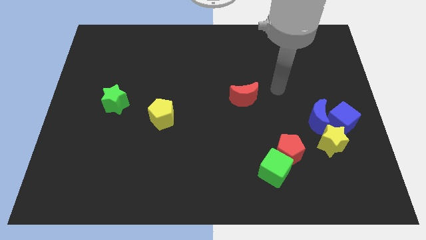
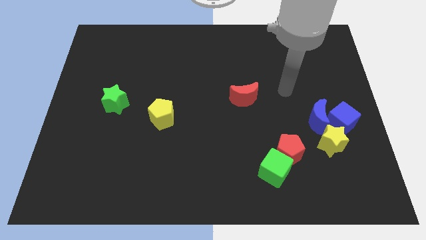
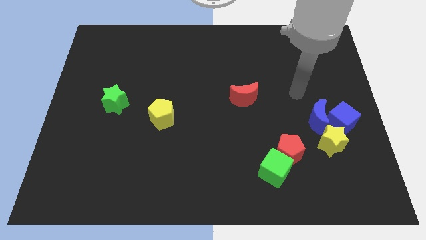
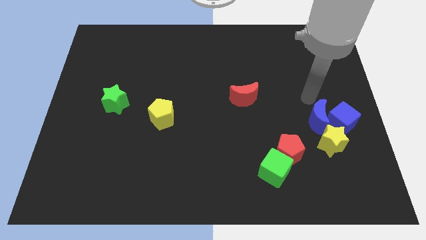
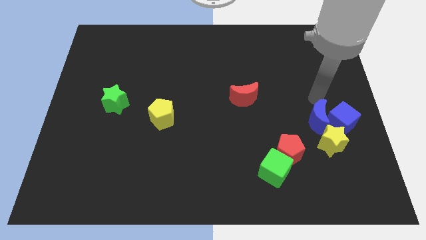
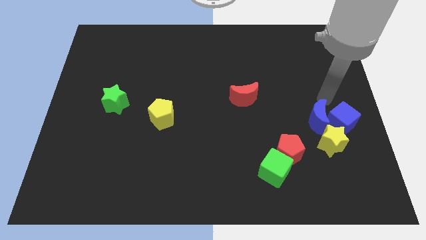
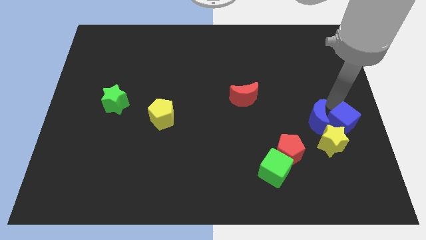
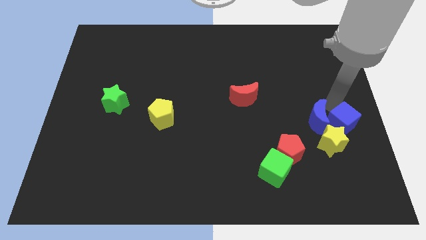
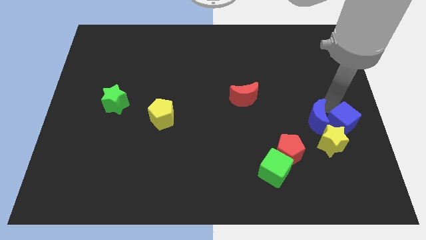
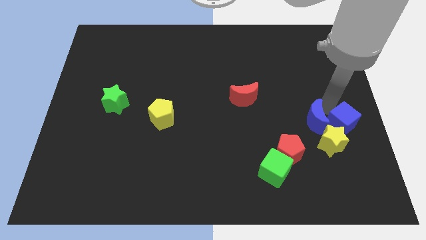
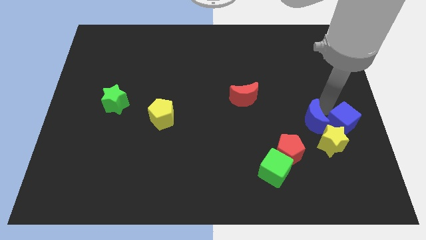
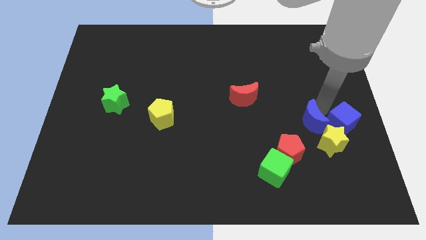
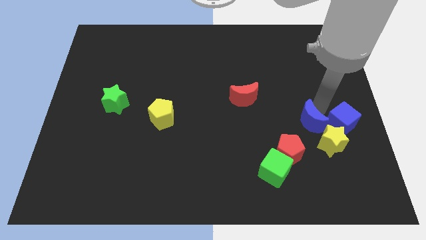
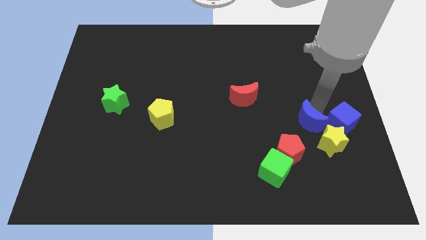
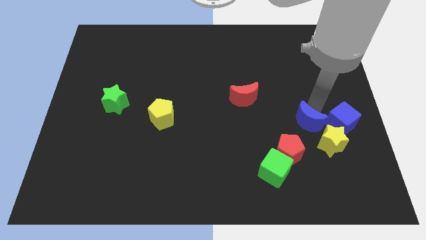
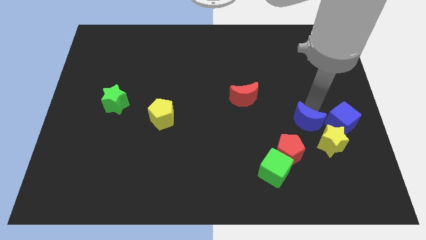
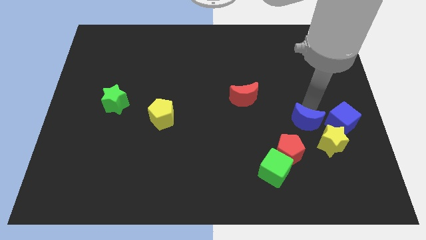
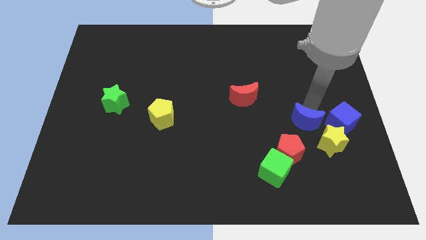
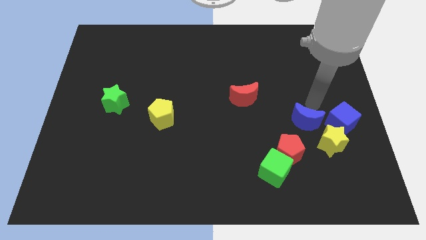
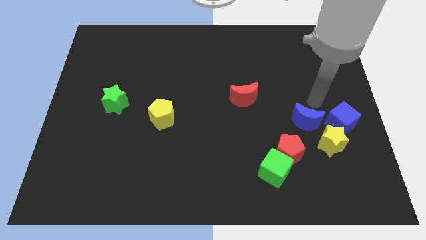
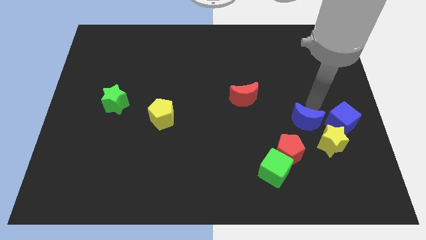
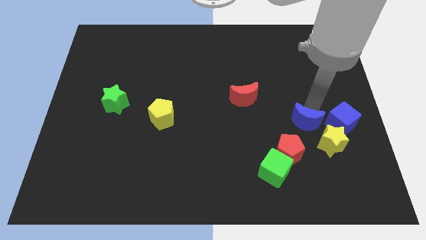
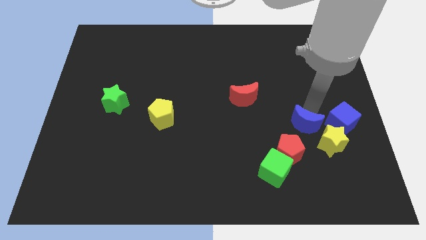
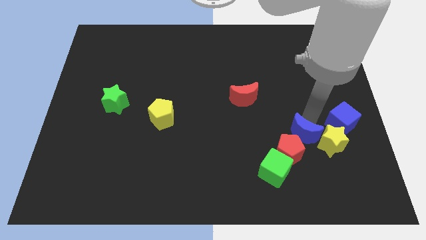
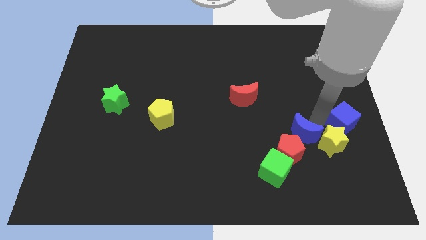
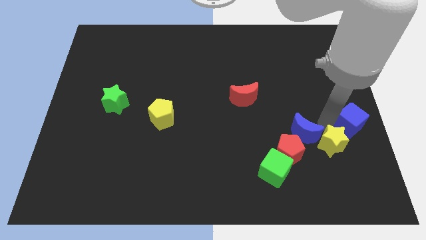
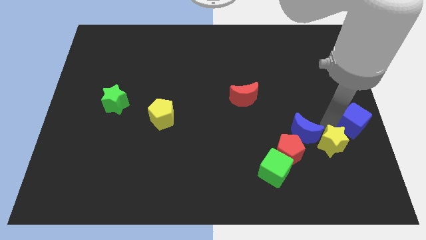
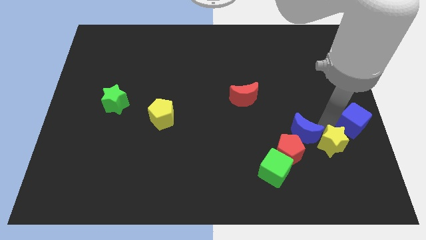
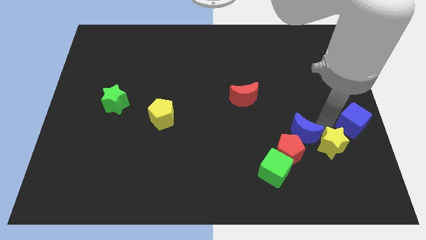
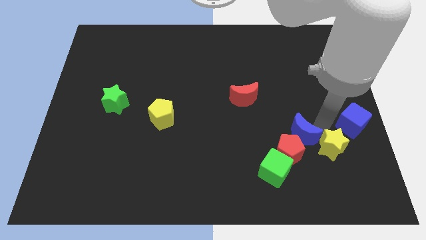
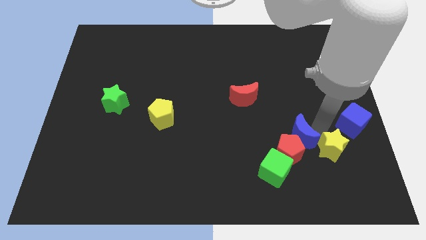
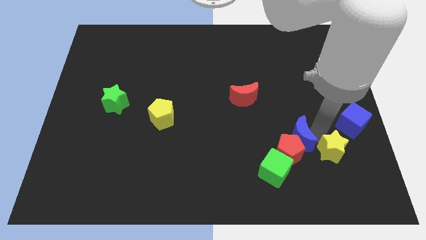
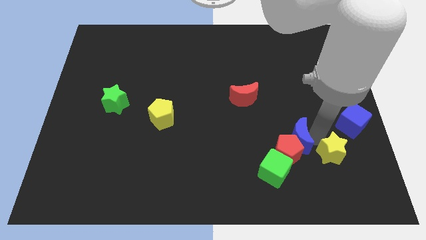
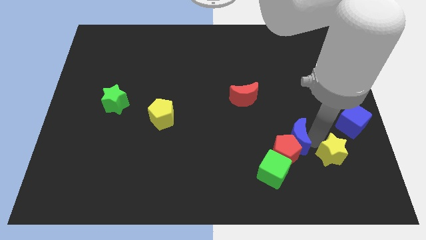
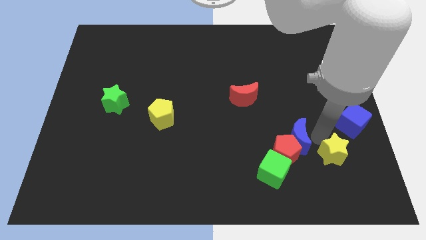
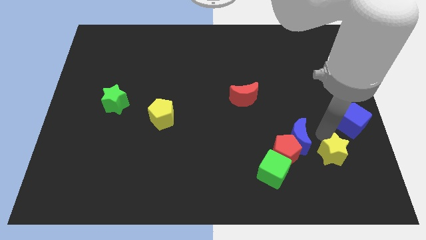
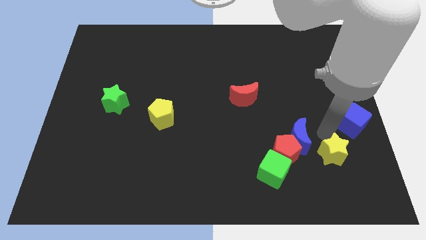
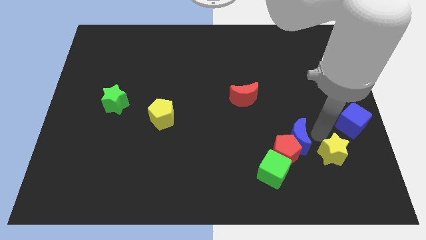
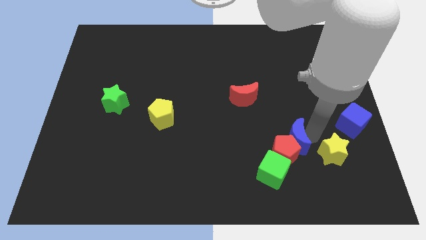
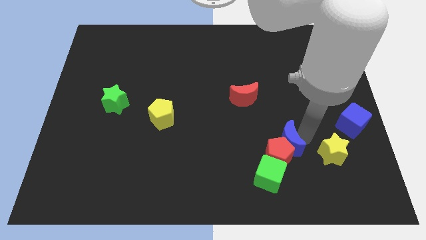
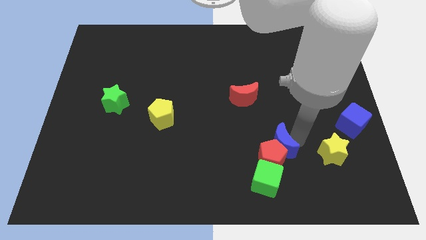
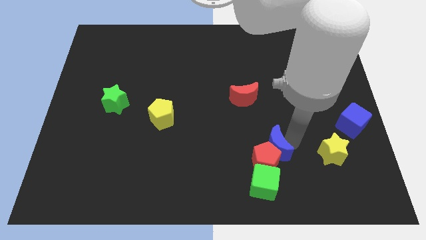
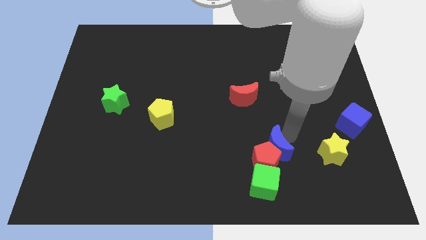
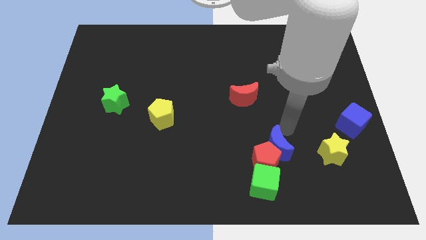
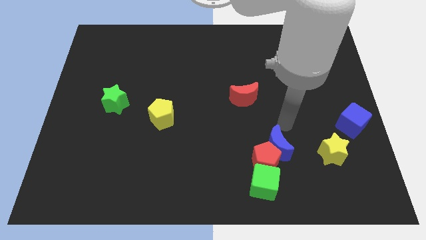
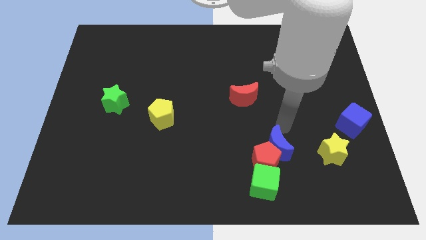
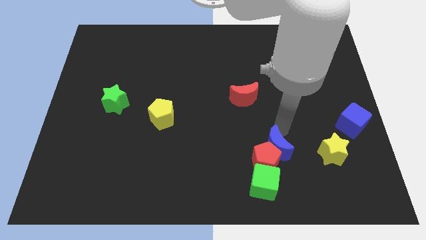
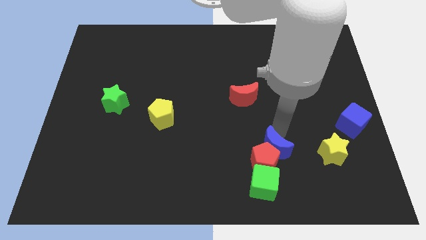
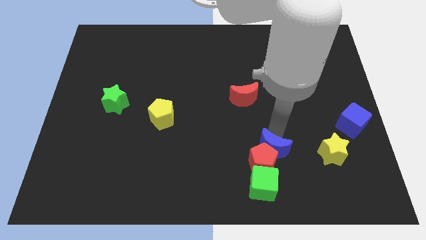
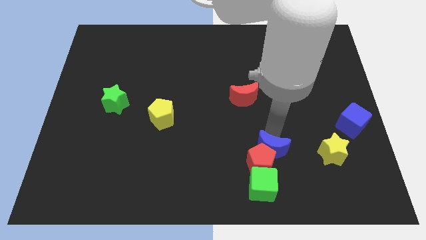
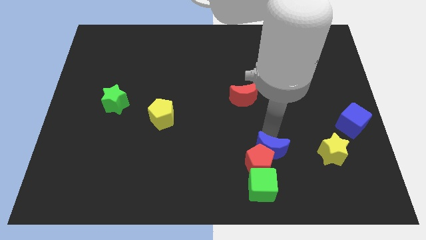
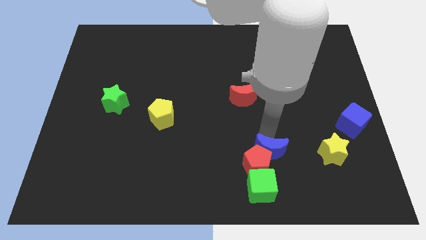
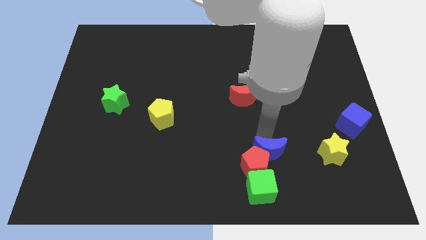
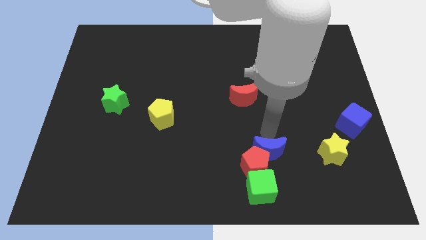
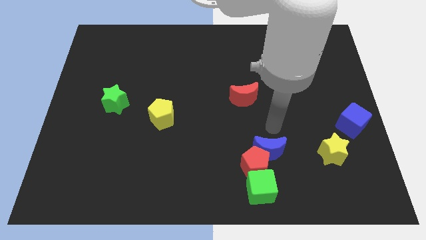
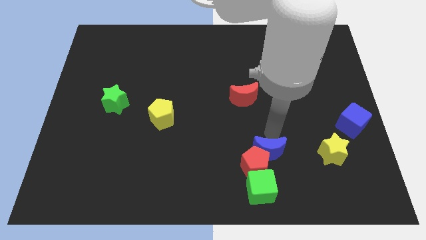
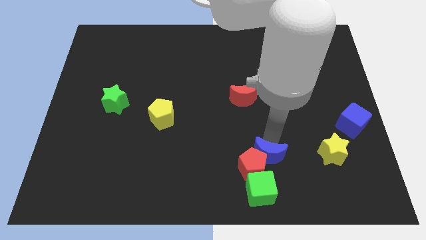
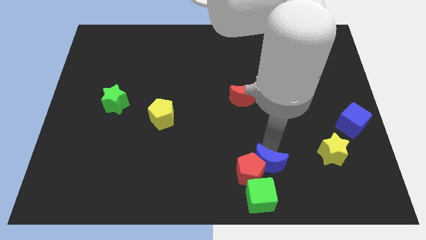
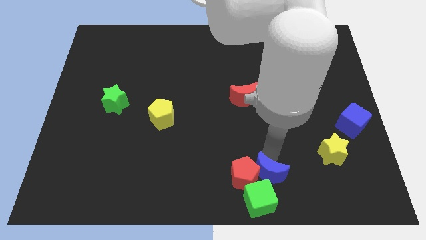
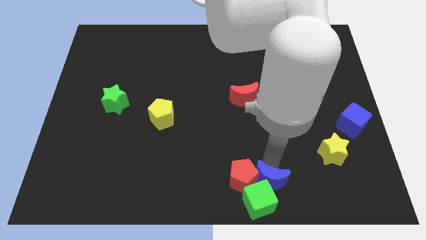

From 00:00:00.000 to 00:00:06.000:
push the blue moon next to the green cube

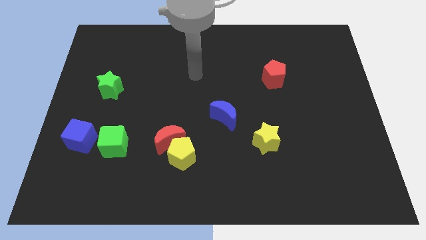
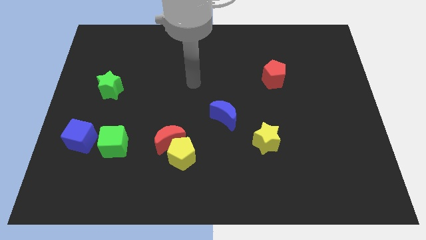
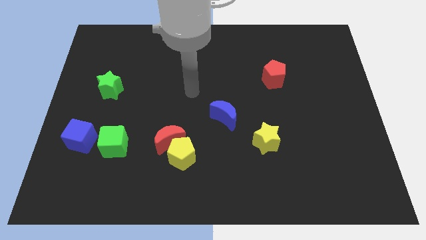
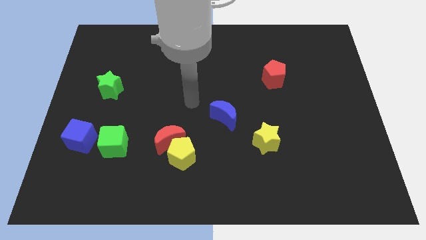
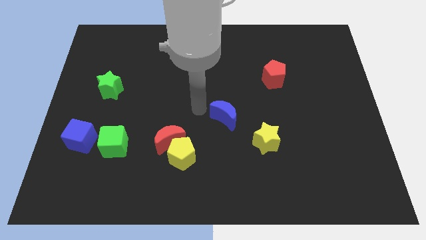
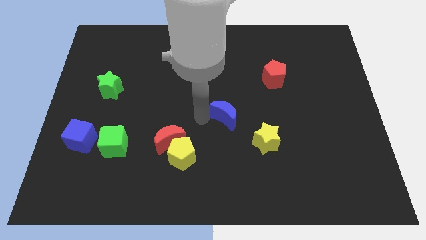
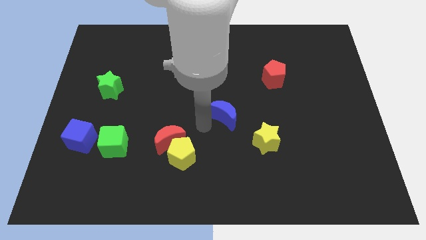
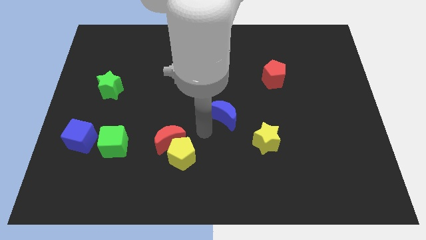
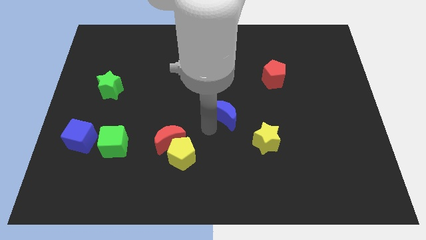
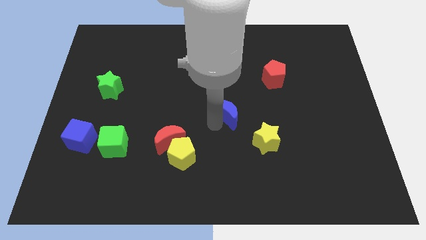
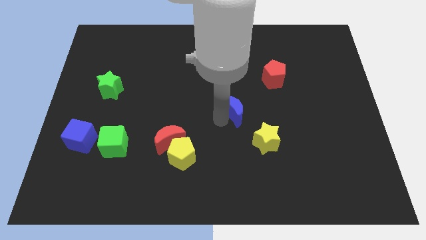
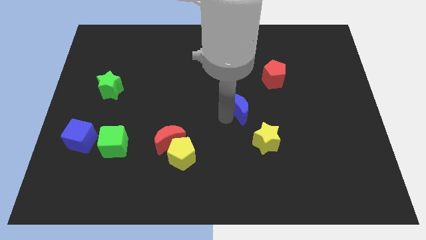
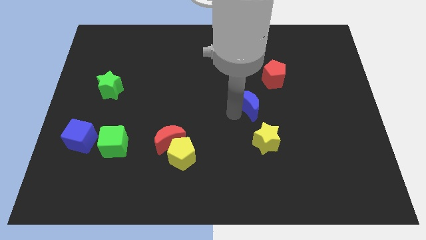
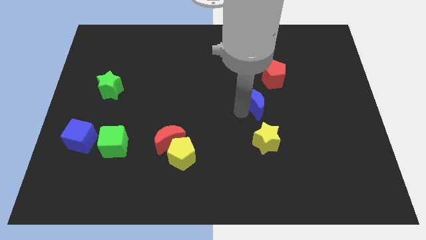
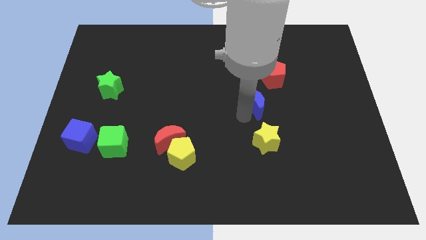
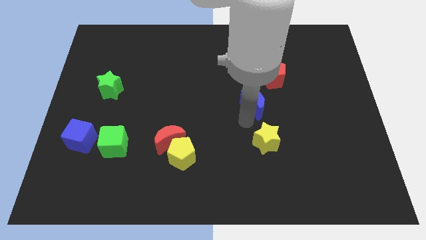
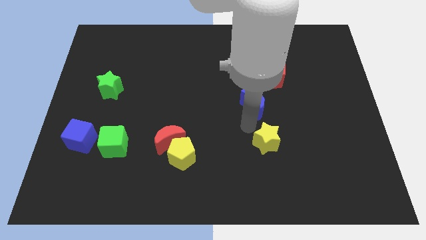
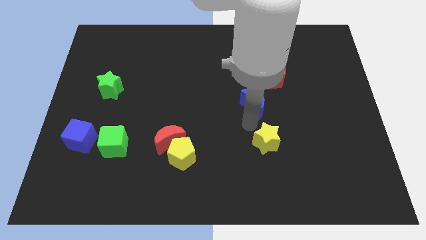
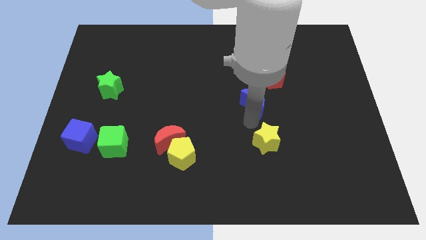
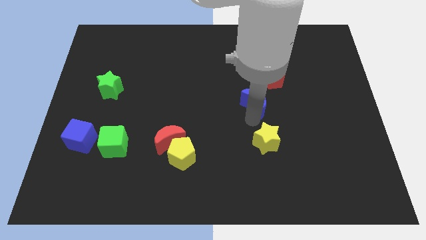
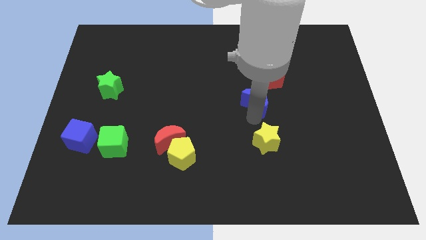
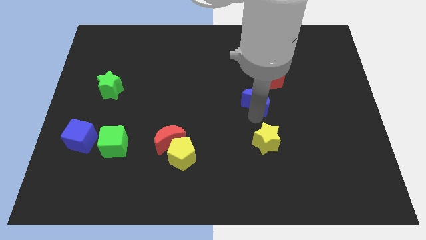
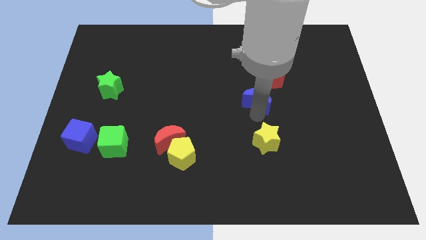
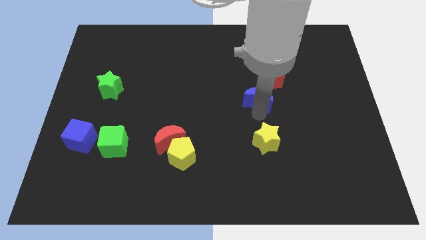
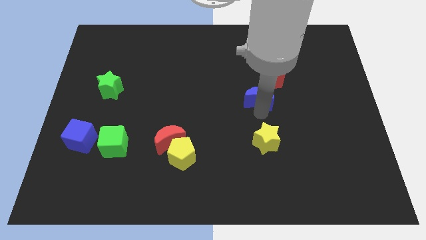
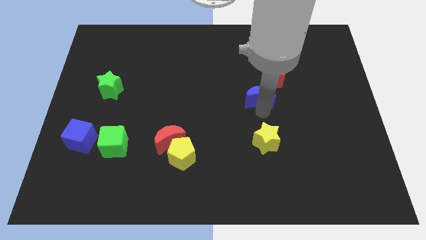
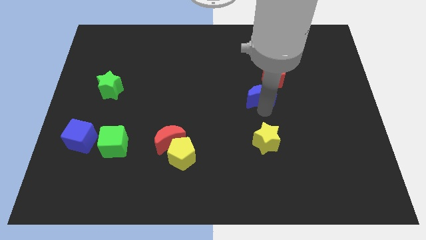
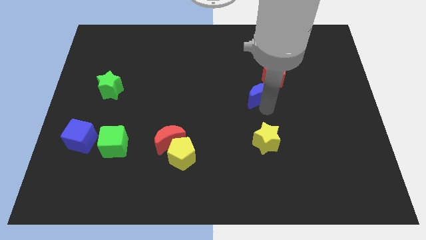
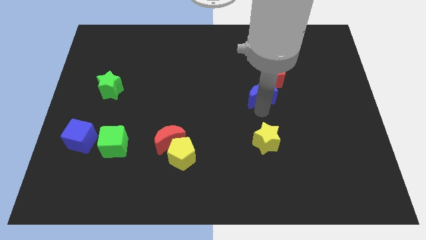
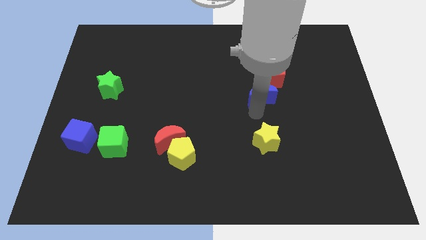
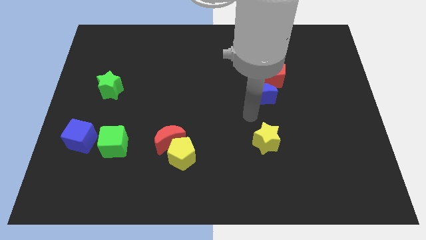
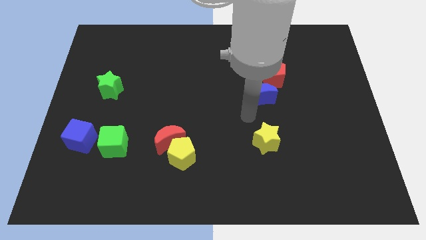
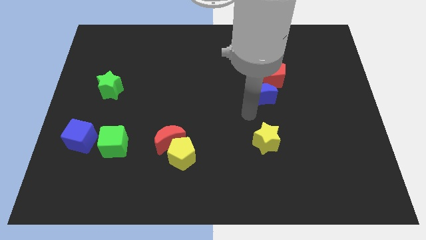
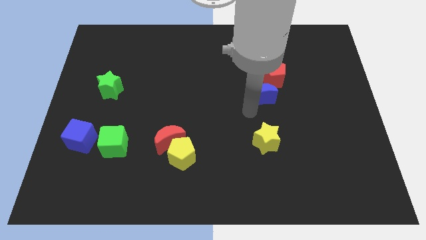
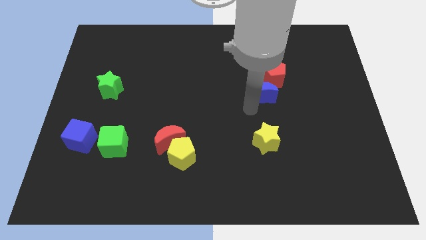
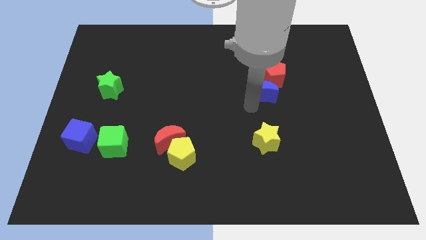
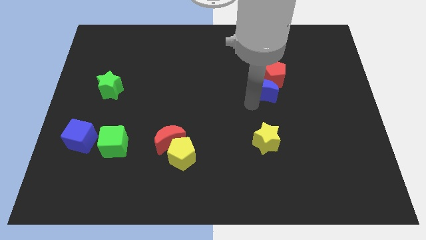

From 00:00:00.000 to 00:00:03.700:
put the blue moon to the red pentagon
